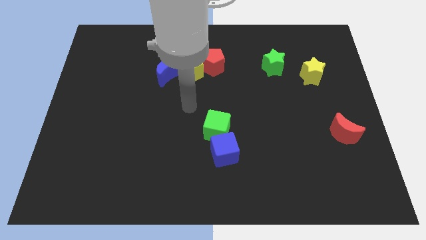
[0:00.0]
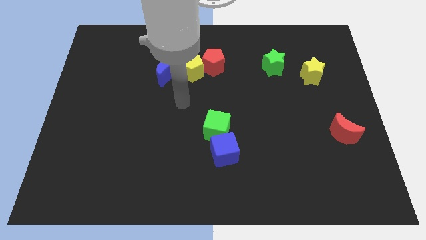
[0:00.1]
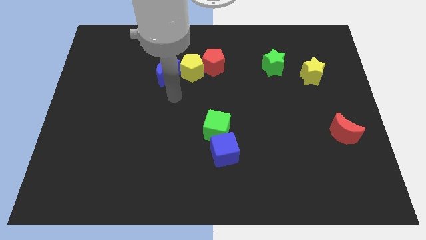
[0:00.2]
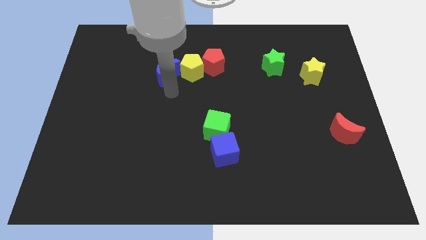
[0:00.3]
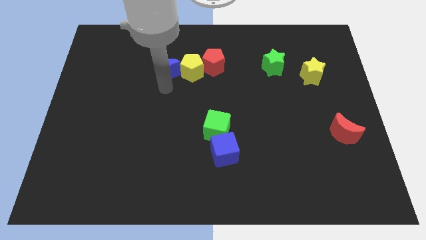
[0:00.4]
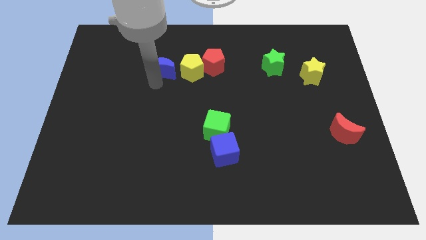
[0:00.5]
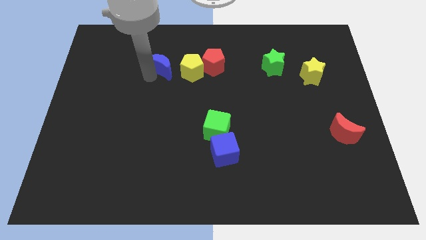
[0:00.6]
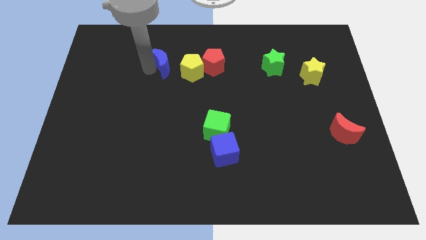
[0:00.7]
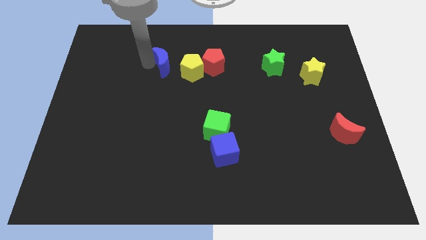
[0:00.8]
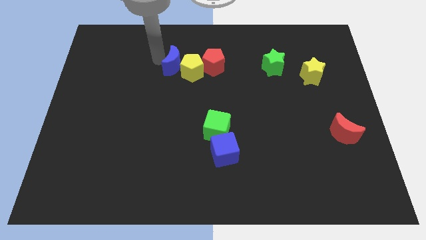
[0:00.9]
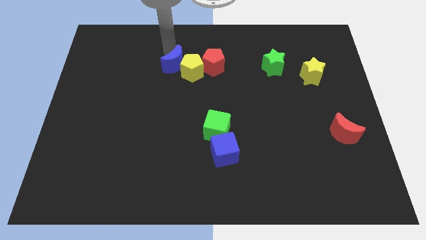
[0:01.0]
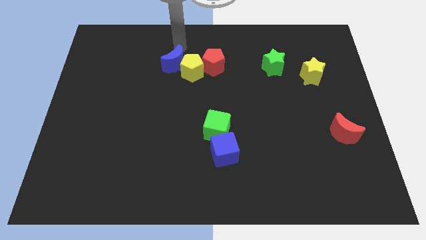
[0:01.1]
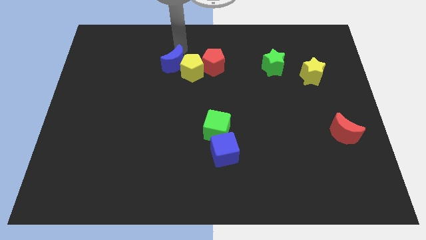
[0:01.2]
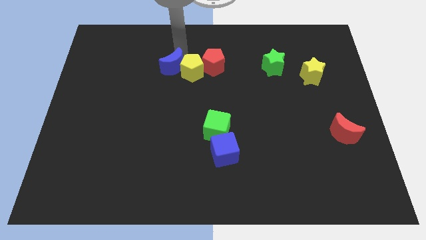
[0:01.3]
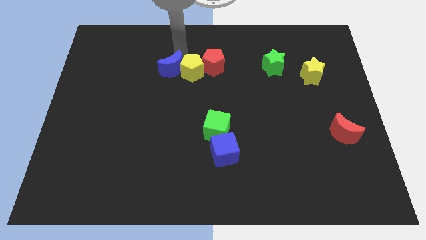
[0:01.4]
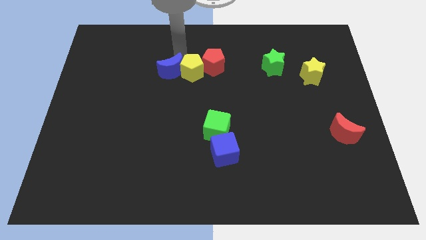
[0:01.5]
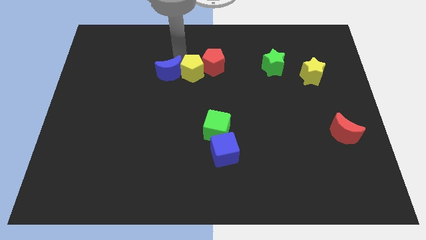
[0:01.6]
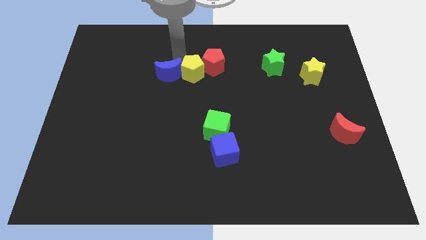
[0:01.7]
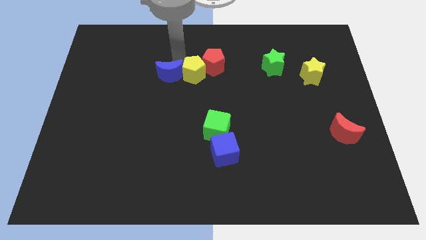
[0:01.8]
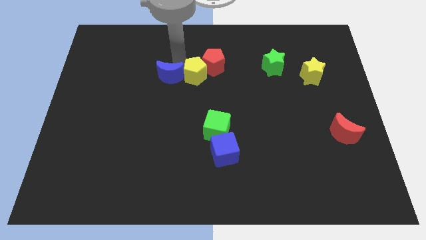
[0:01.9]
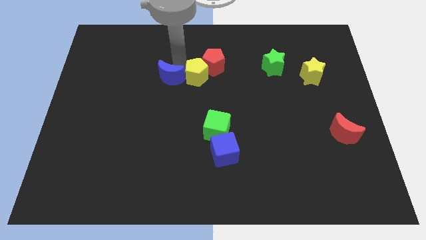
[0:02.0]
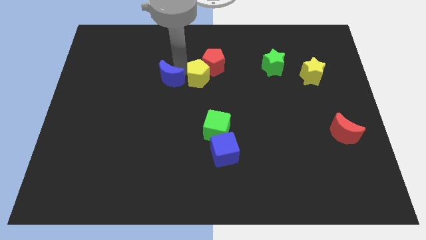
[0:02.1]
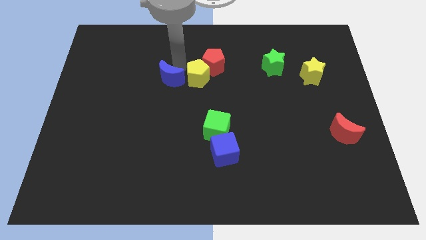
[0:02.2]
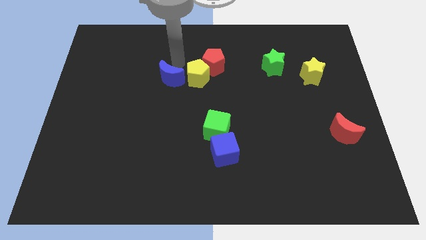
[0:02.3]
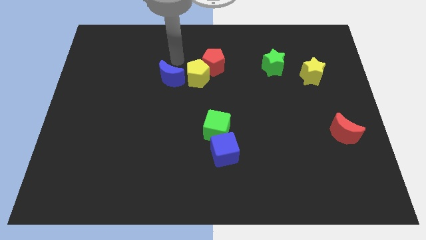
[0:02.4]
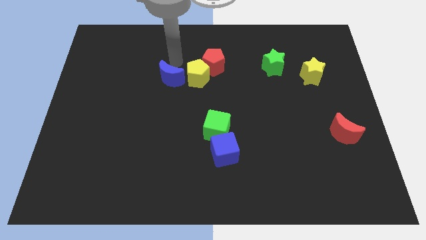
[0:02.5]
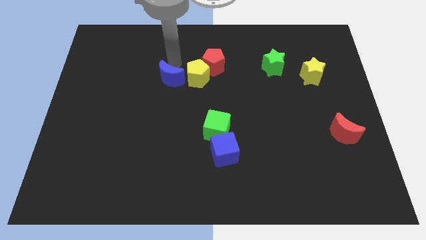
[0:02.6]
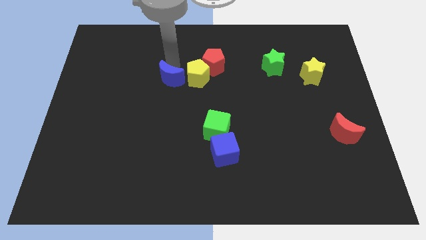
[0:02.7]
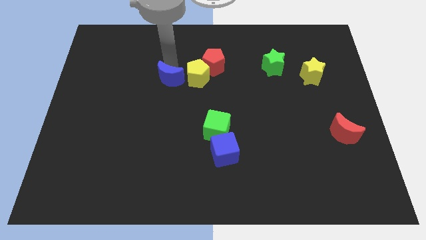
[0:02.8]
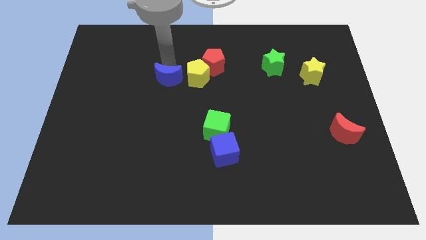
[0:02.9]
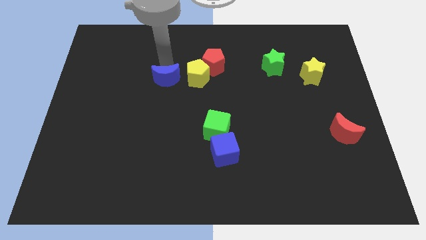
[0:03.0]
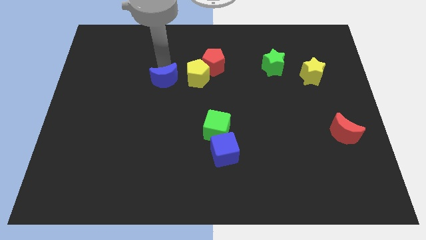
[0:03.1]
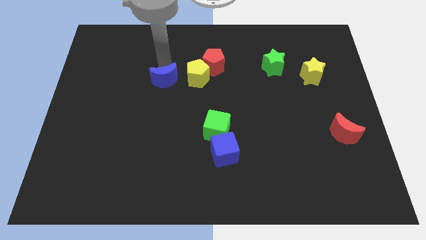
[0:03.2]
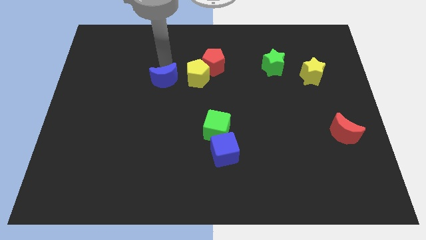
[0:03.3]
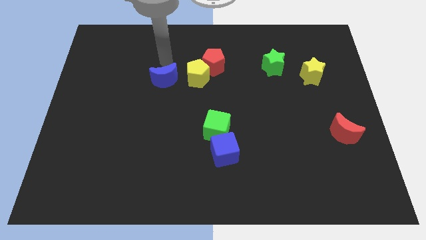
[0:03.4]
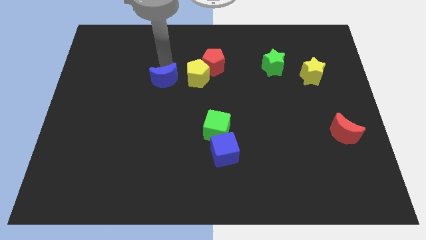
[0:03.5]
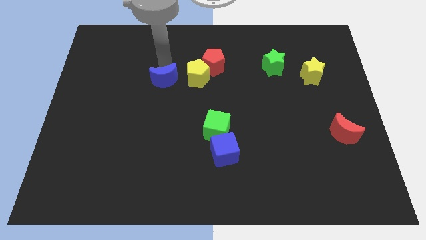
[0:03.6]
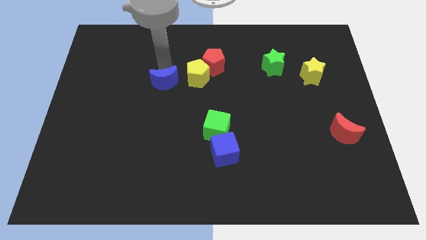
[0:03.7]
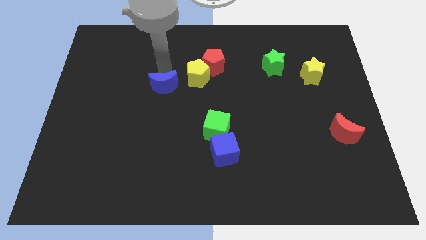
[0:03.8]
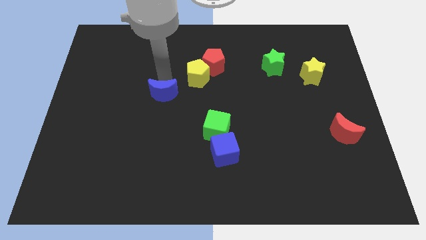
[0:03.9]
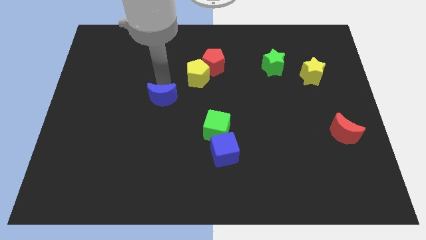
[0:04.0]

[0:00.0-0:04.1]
slide the blue moon downwards a bit

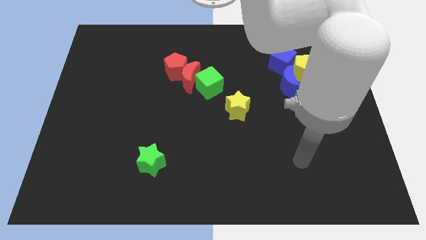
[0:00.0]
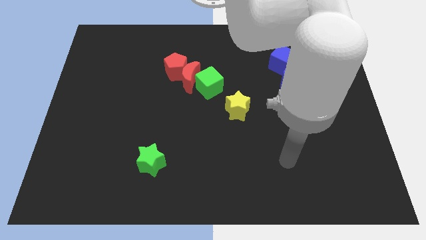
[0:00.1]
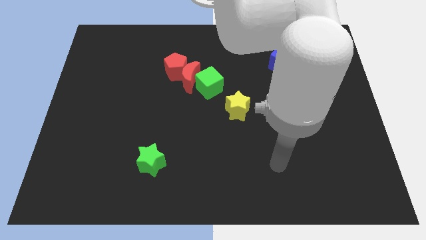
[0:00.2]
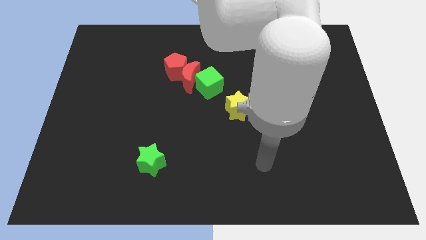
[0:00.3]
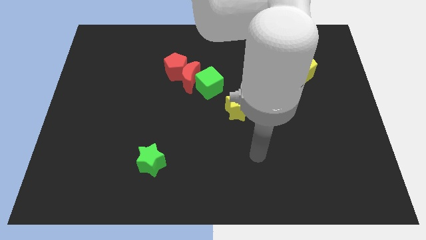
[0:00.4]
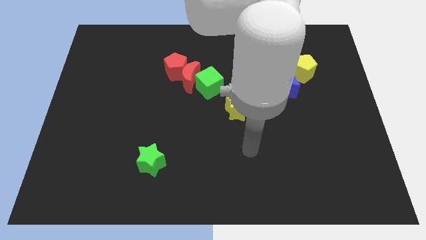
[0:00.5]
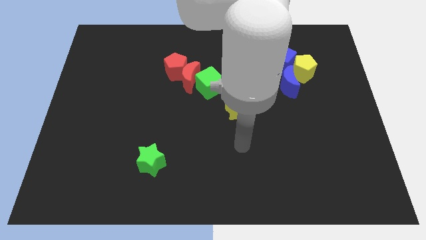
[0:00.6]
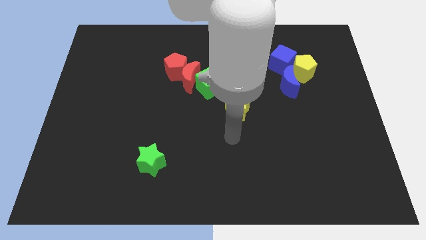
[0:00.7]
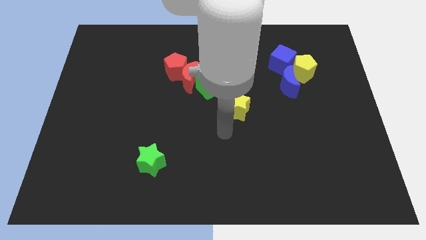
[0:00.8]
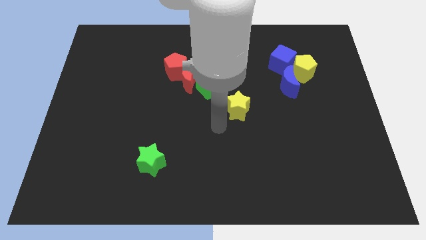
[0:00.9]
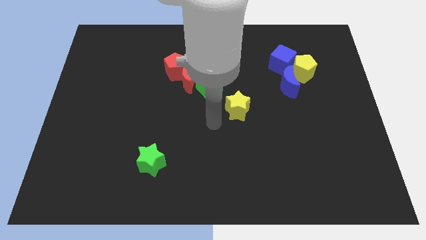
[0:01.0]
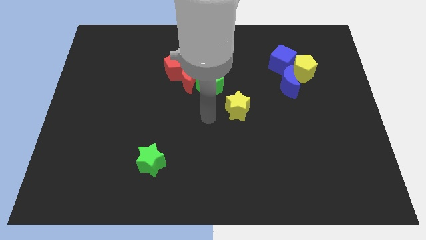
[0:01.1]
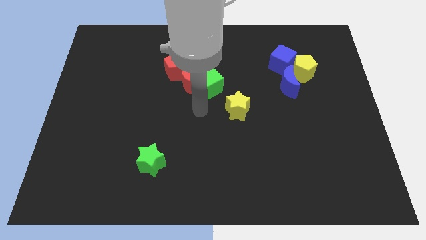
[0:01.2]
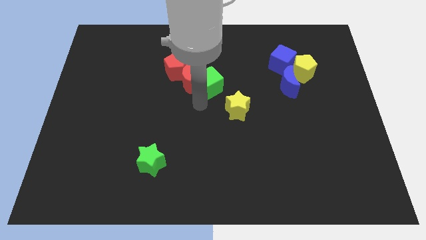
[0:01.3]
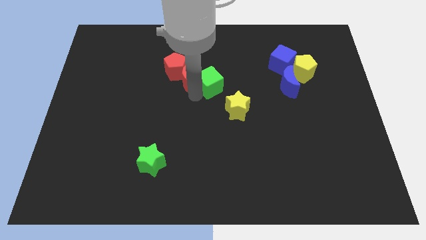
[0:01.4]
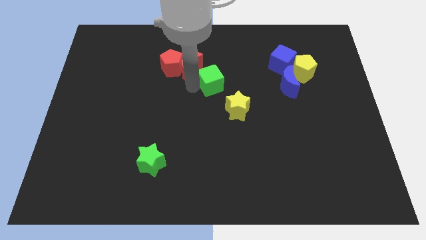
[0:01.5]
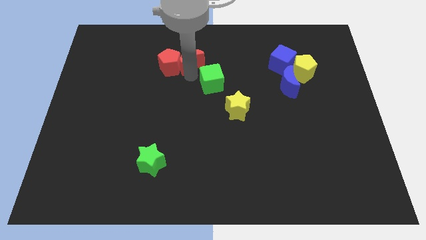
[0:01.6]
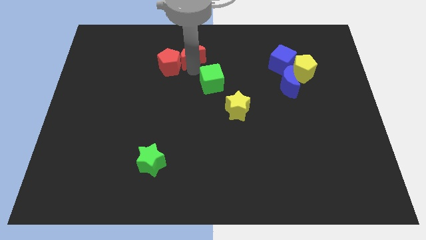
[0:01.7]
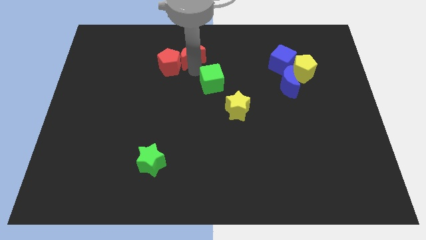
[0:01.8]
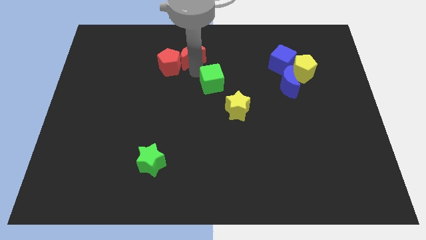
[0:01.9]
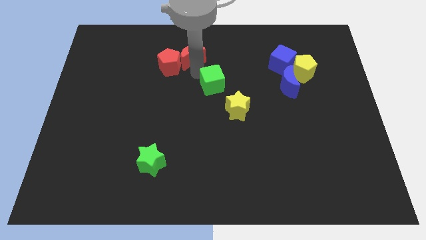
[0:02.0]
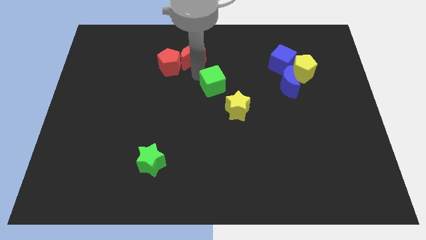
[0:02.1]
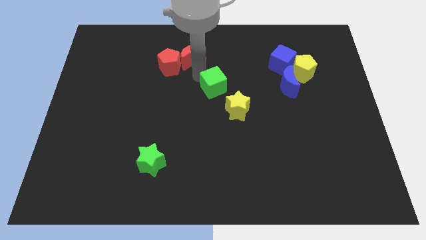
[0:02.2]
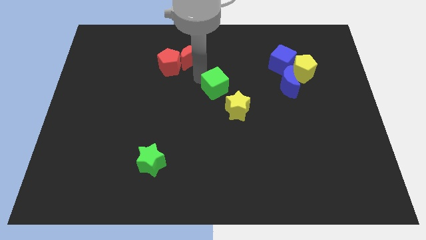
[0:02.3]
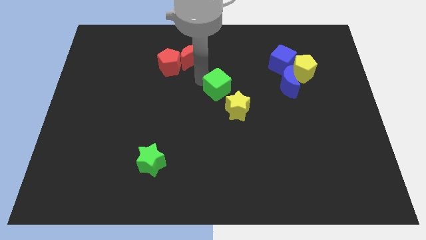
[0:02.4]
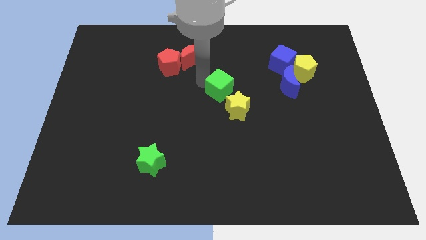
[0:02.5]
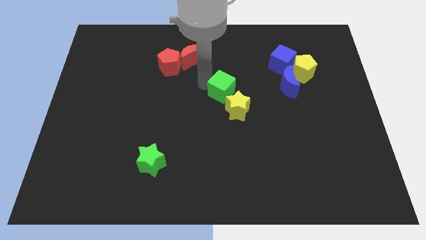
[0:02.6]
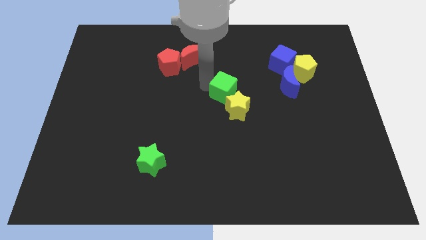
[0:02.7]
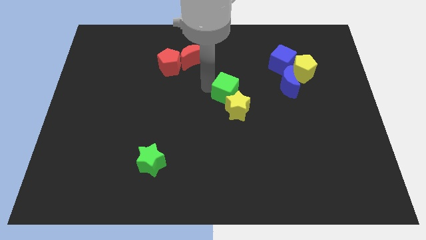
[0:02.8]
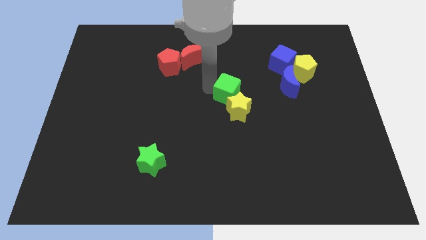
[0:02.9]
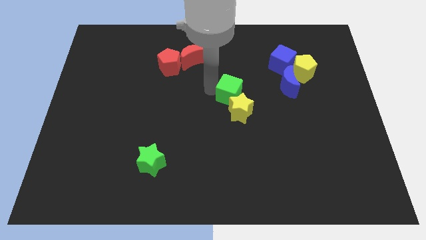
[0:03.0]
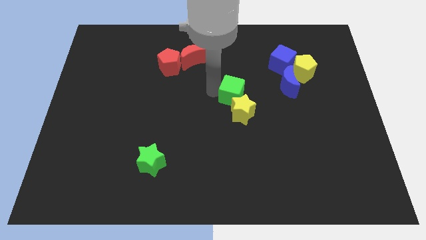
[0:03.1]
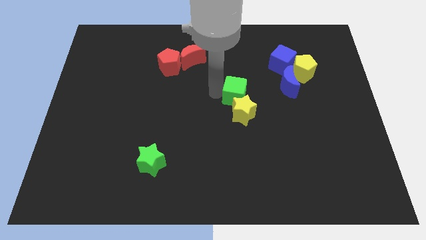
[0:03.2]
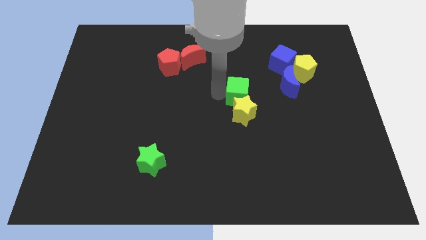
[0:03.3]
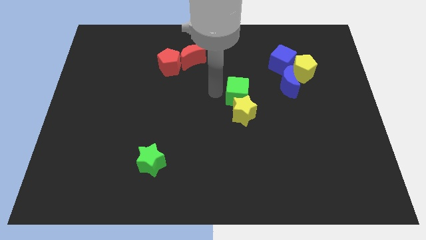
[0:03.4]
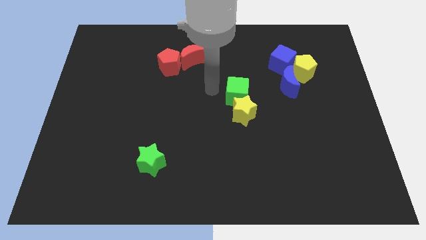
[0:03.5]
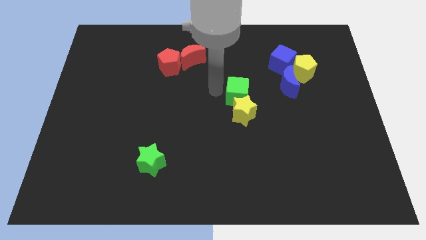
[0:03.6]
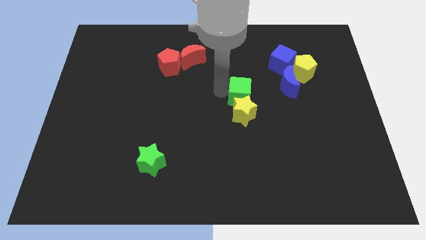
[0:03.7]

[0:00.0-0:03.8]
move the green cube somewhat down and right
